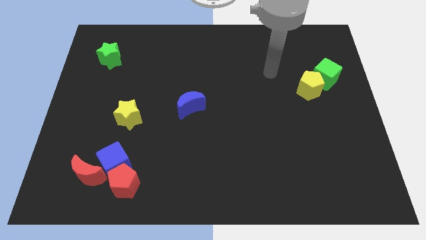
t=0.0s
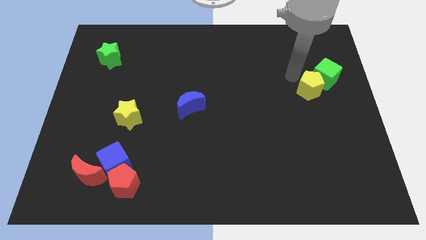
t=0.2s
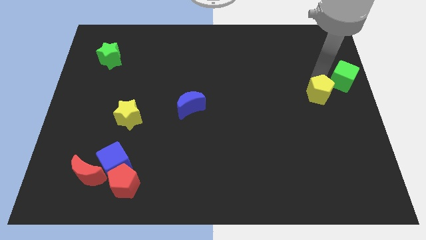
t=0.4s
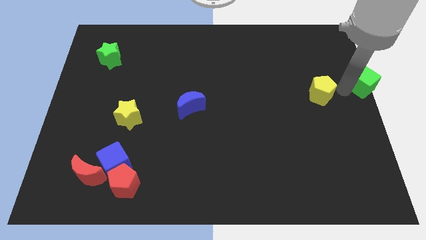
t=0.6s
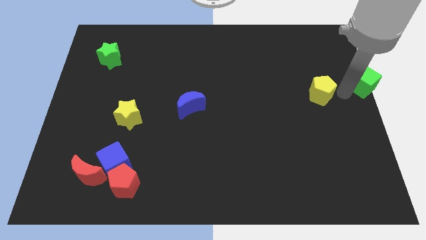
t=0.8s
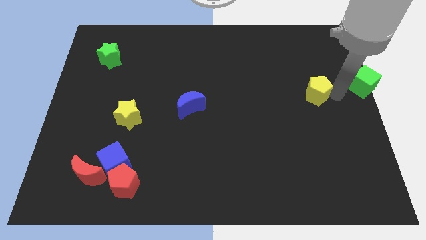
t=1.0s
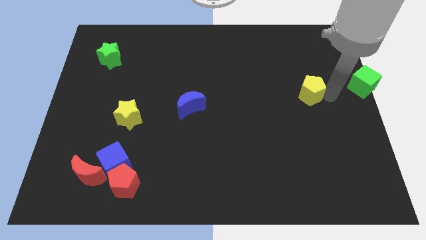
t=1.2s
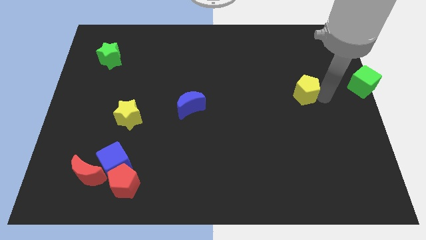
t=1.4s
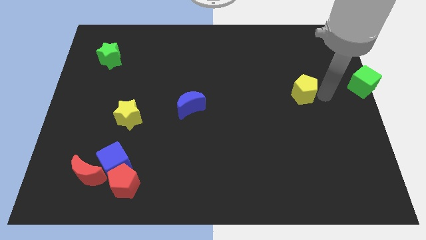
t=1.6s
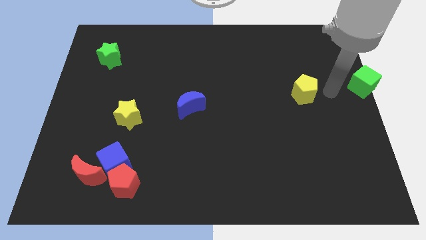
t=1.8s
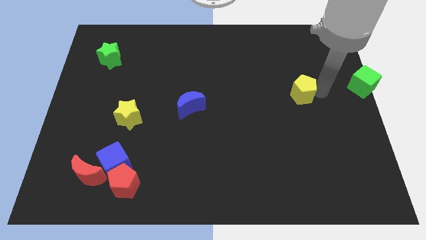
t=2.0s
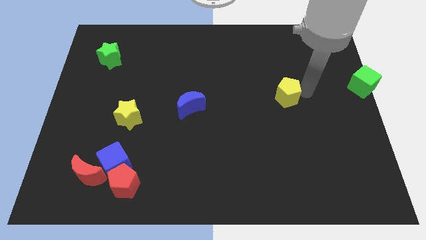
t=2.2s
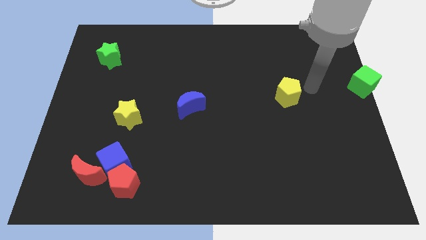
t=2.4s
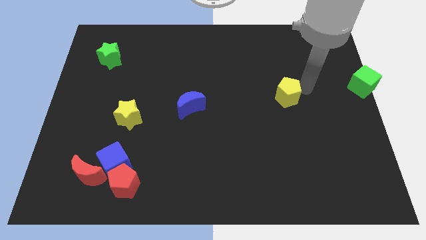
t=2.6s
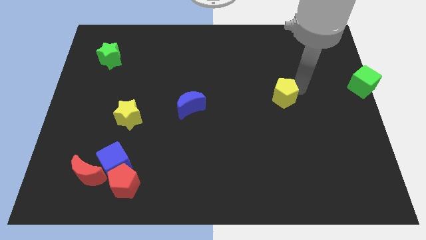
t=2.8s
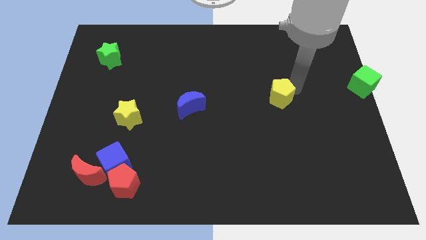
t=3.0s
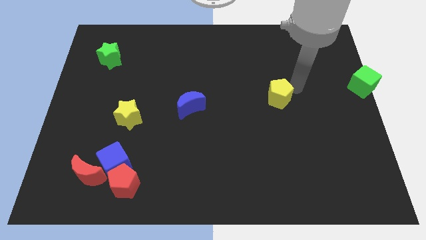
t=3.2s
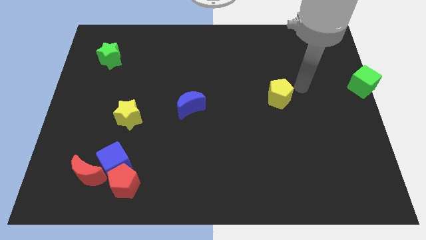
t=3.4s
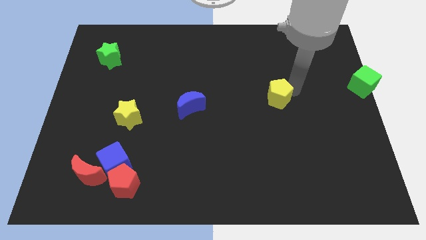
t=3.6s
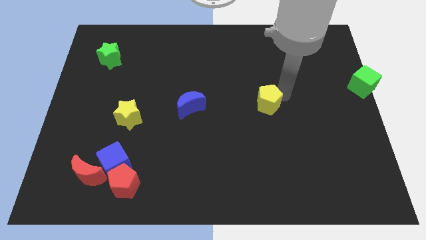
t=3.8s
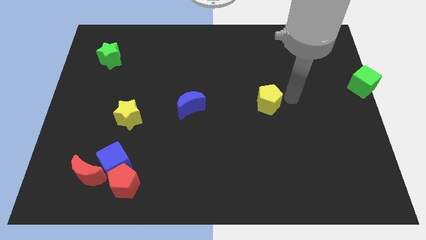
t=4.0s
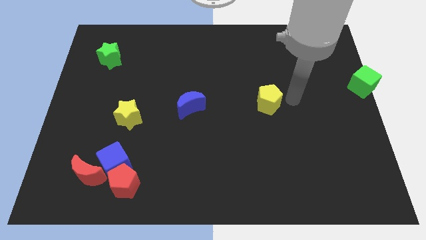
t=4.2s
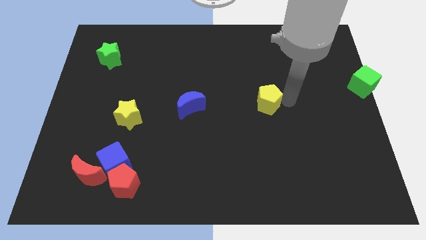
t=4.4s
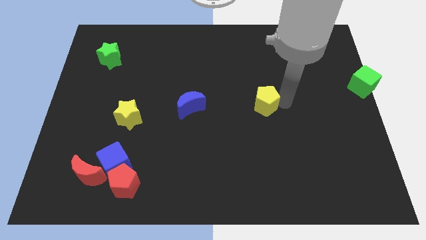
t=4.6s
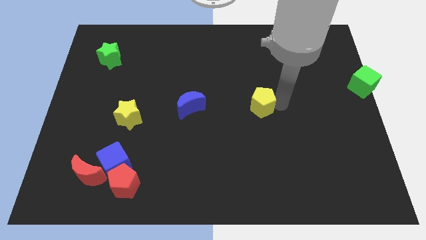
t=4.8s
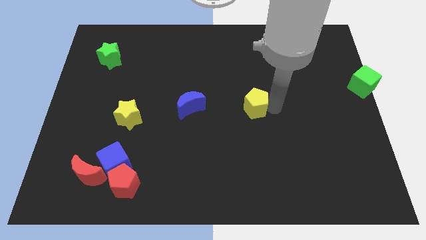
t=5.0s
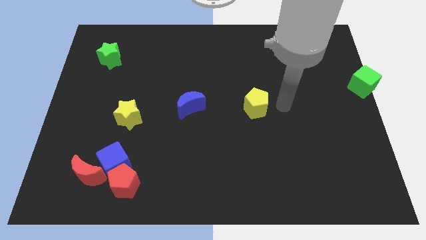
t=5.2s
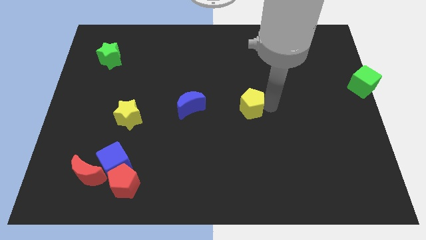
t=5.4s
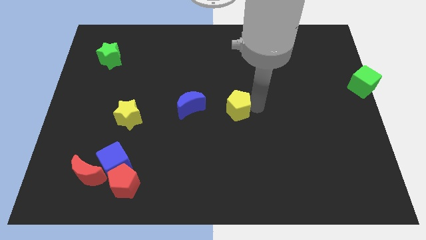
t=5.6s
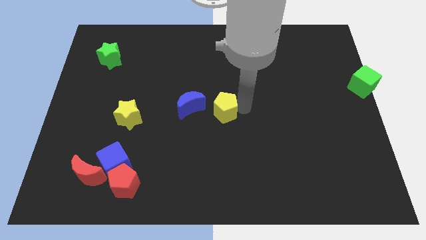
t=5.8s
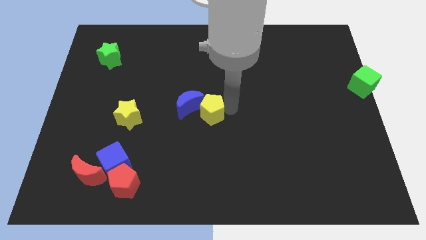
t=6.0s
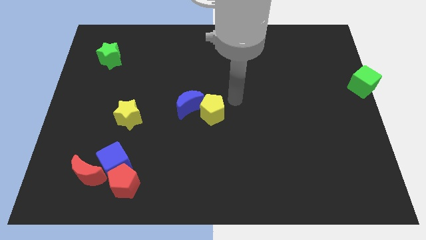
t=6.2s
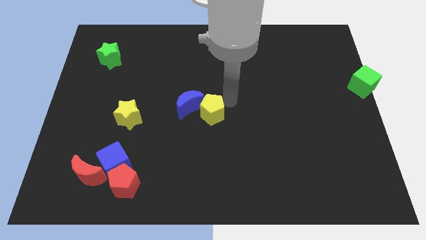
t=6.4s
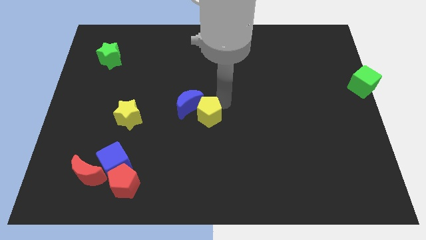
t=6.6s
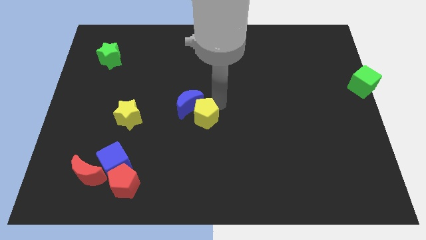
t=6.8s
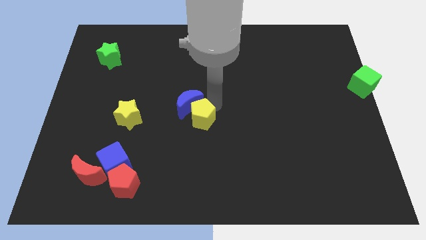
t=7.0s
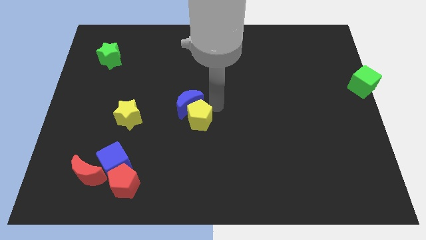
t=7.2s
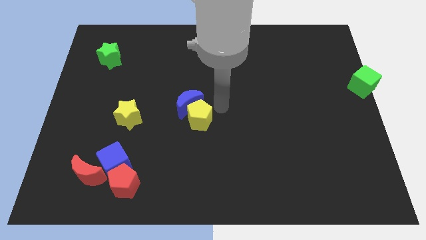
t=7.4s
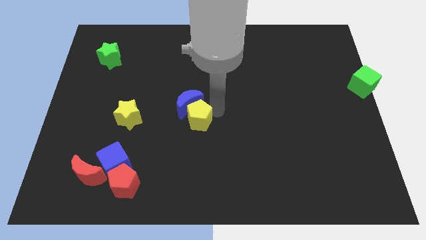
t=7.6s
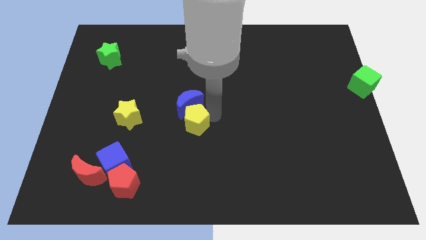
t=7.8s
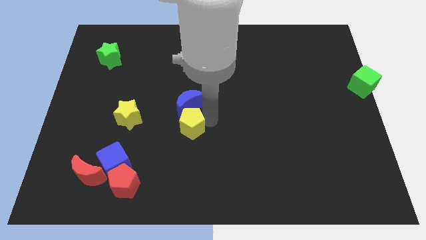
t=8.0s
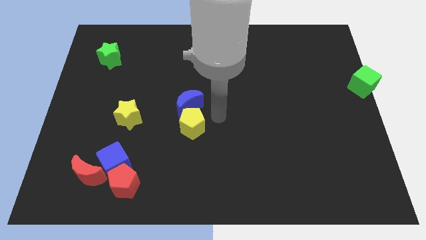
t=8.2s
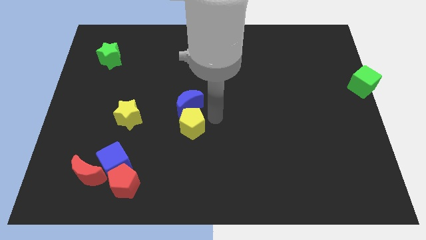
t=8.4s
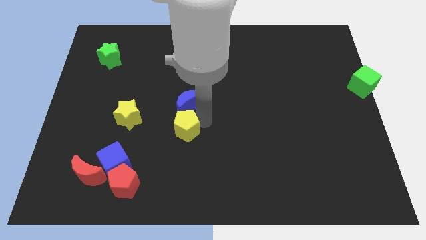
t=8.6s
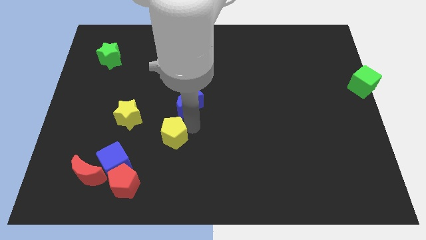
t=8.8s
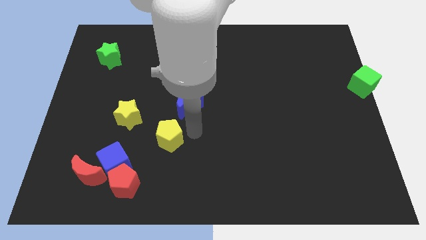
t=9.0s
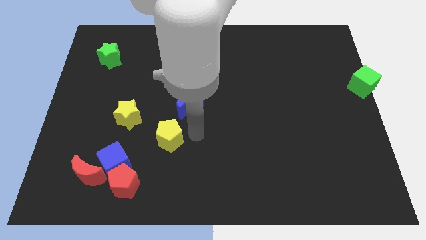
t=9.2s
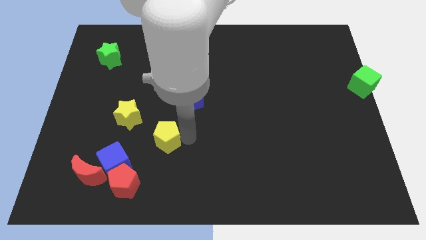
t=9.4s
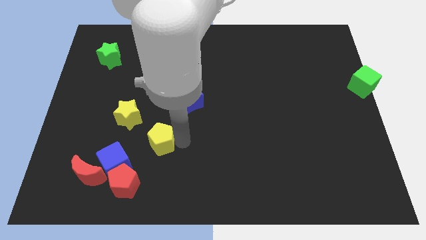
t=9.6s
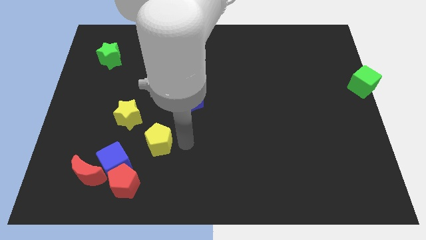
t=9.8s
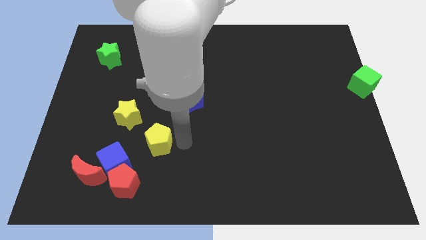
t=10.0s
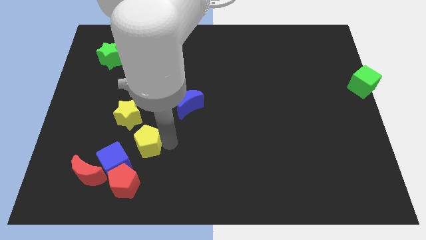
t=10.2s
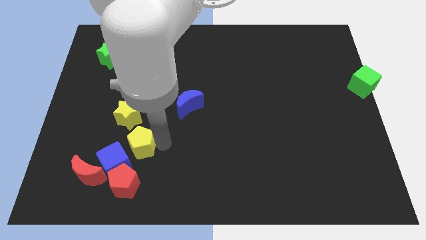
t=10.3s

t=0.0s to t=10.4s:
slide the yellow pentagon to the top right side of the red moon

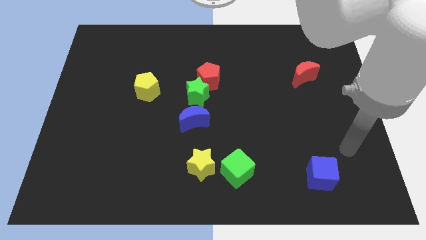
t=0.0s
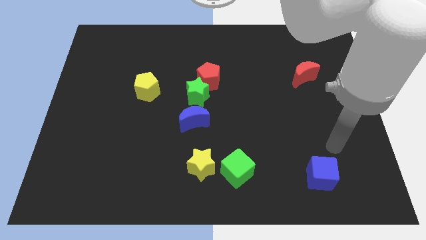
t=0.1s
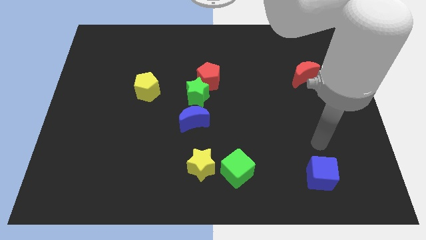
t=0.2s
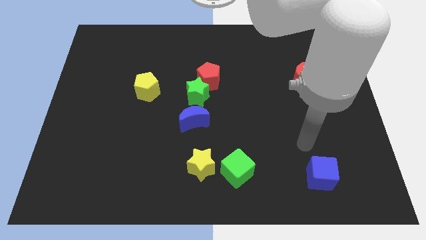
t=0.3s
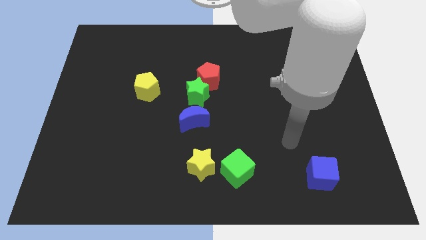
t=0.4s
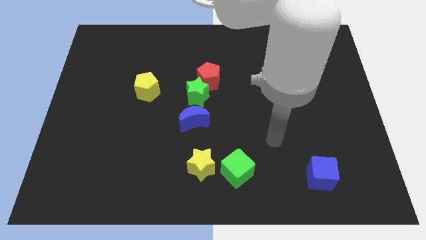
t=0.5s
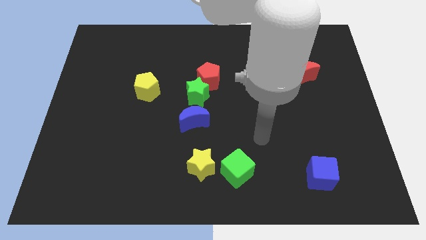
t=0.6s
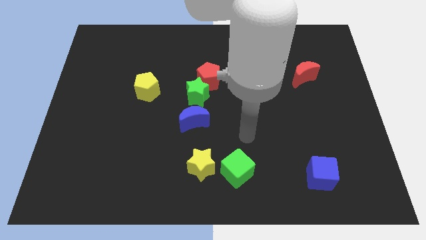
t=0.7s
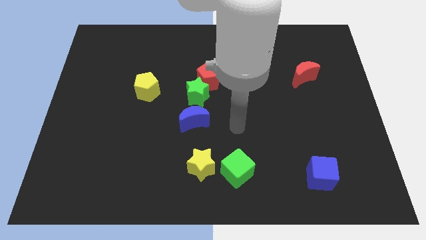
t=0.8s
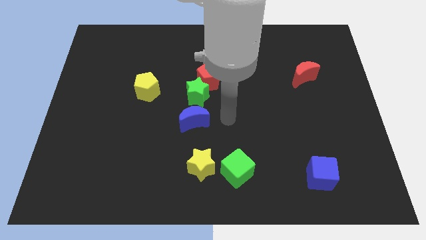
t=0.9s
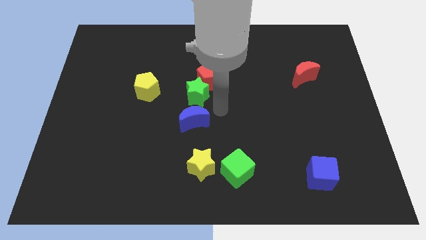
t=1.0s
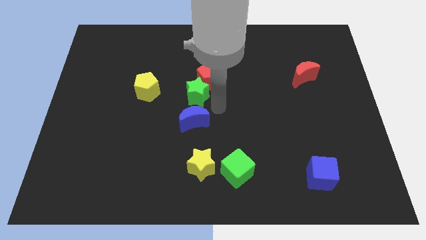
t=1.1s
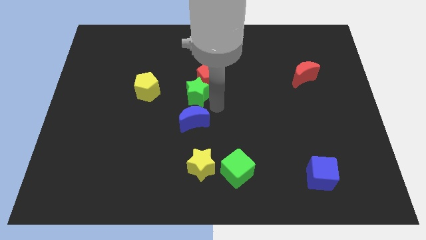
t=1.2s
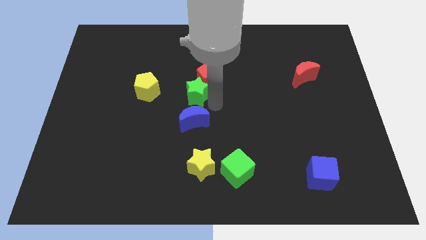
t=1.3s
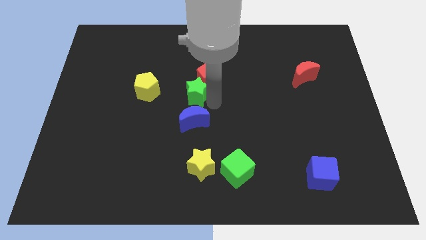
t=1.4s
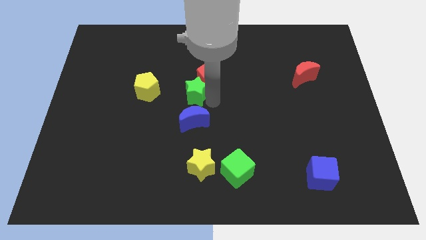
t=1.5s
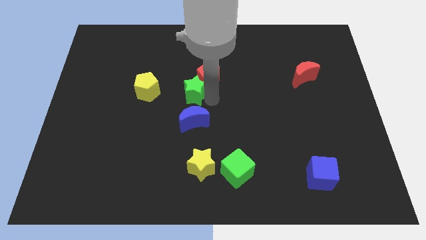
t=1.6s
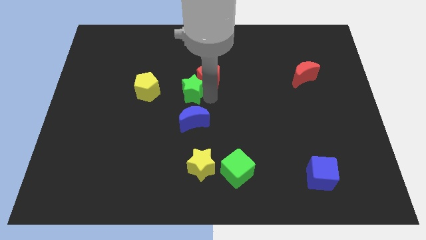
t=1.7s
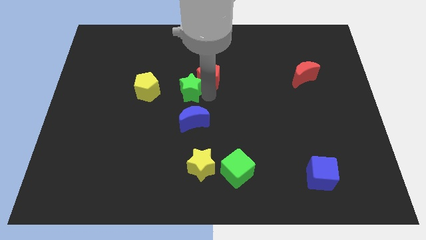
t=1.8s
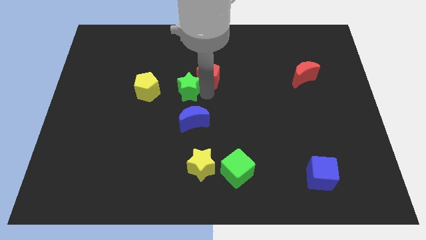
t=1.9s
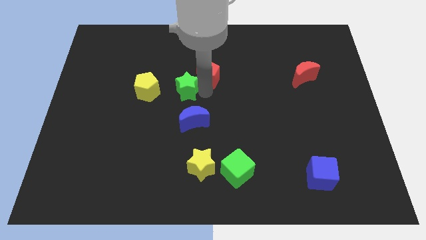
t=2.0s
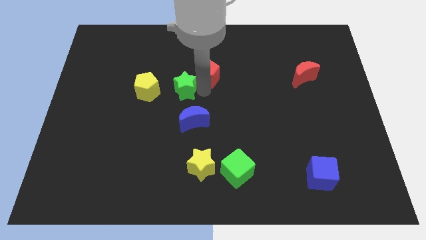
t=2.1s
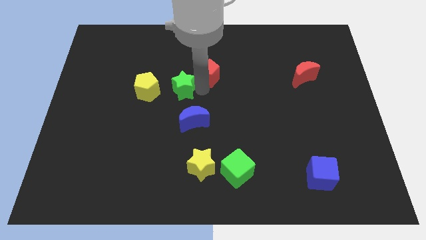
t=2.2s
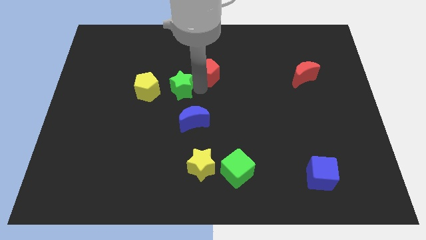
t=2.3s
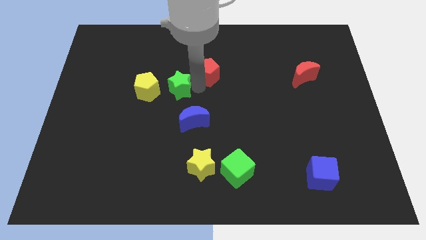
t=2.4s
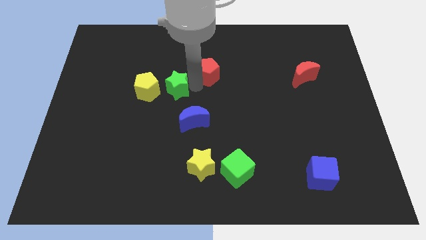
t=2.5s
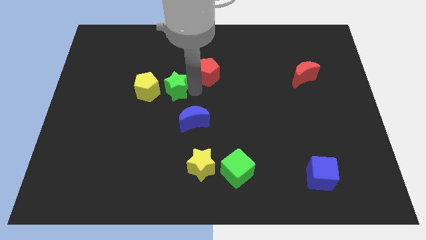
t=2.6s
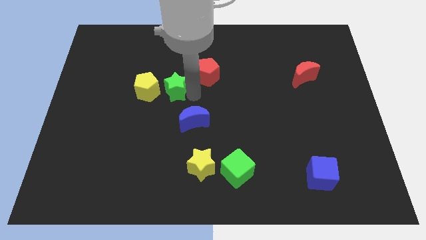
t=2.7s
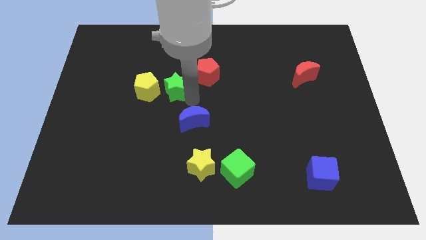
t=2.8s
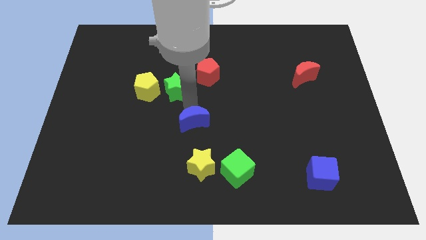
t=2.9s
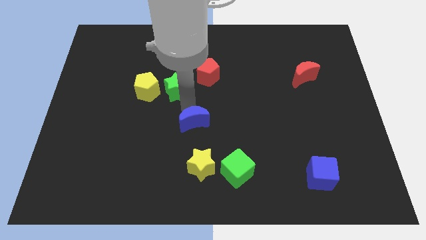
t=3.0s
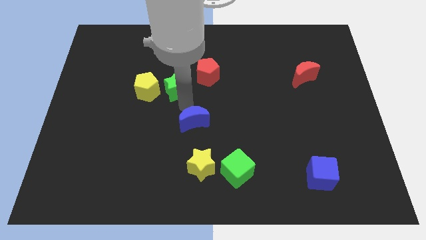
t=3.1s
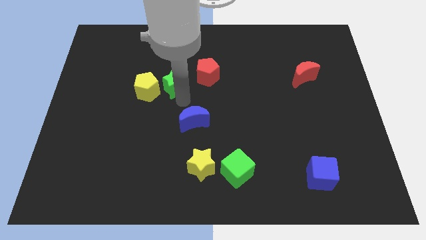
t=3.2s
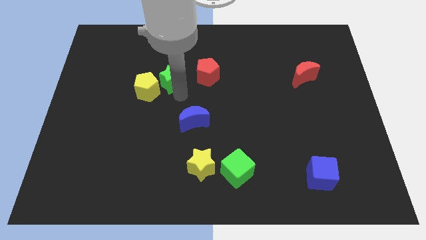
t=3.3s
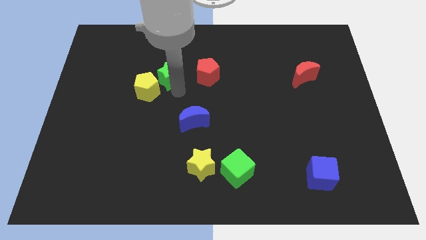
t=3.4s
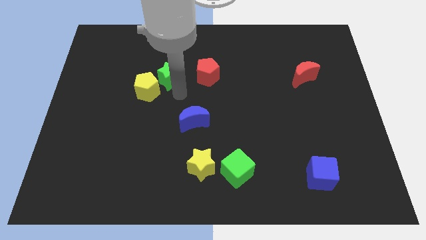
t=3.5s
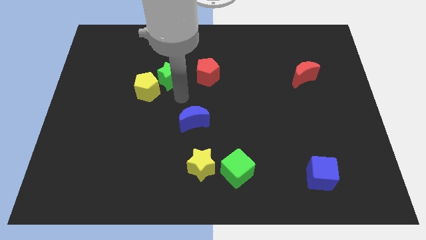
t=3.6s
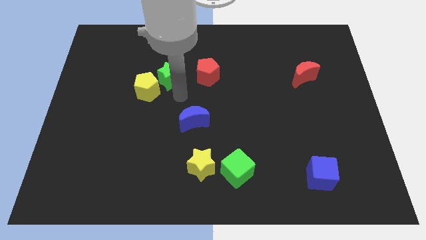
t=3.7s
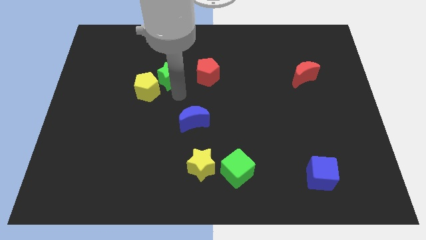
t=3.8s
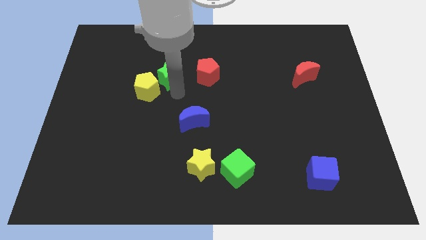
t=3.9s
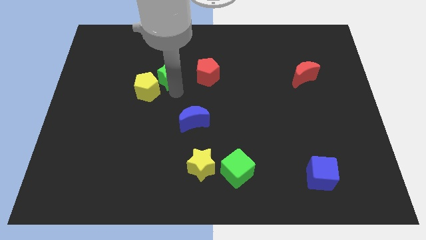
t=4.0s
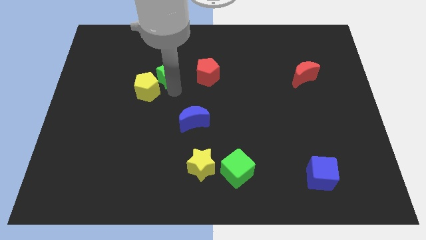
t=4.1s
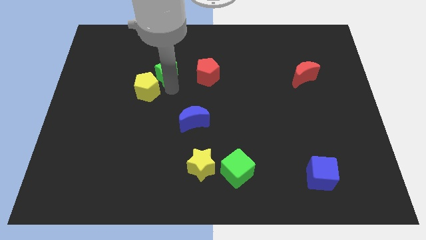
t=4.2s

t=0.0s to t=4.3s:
move the green star to the top of the yellow pentagon
